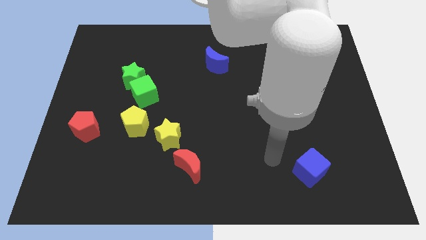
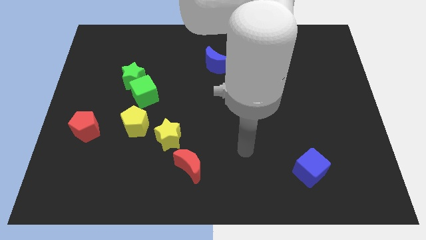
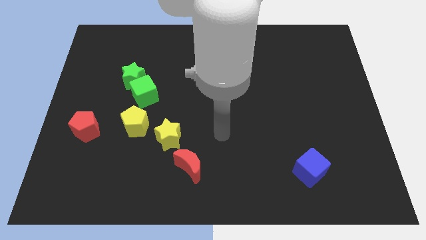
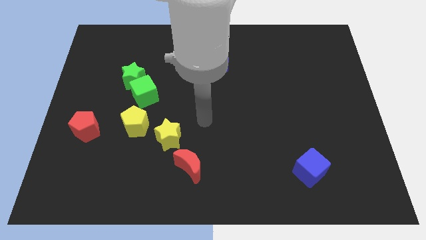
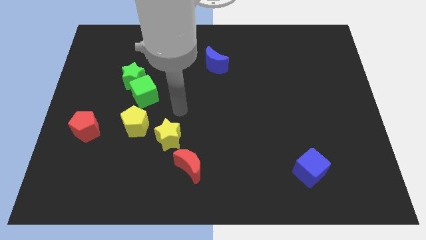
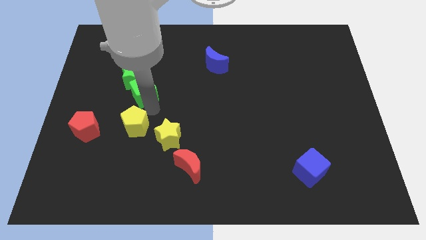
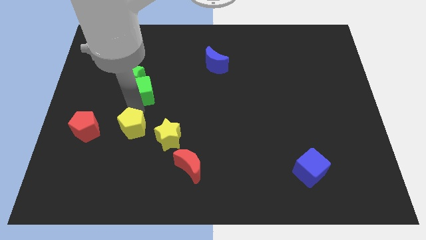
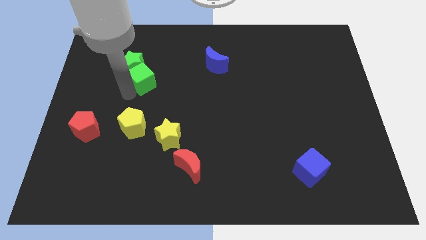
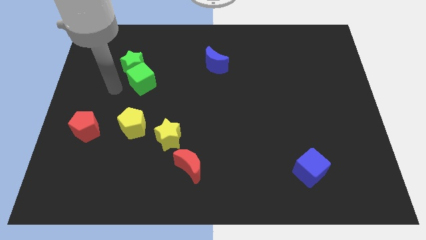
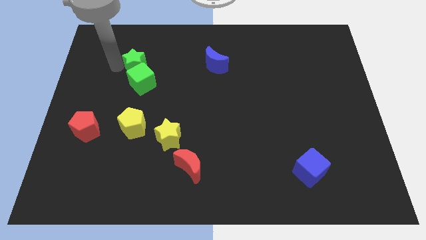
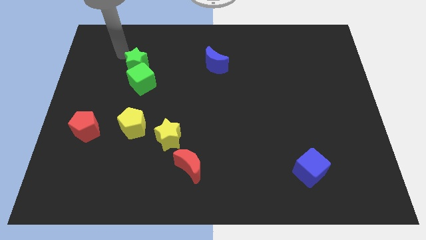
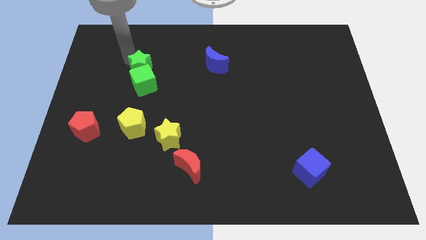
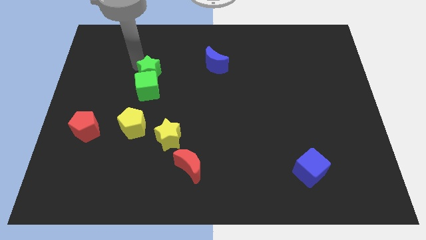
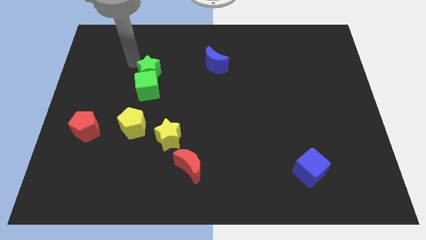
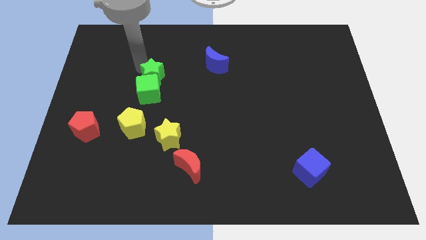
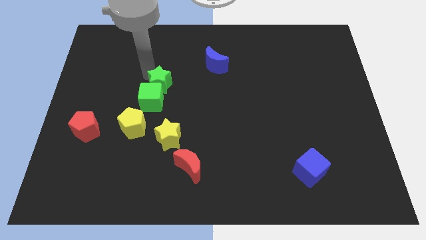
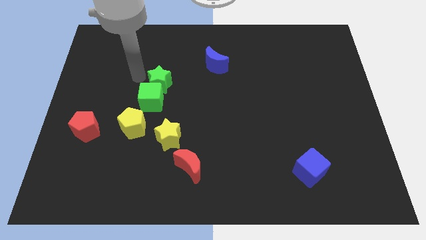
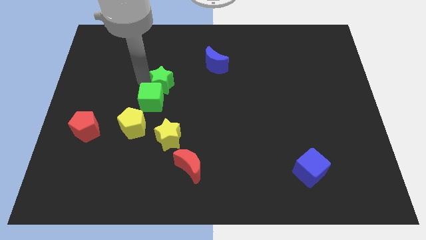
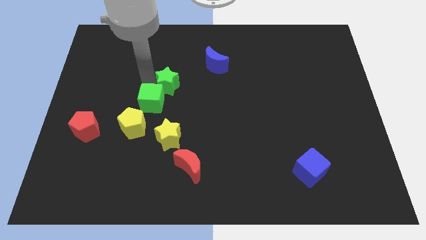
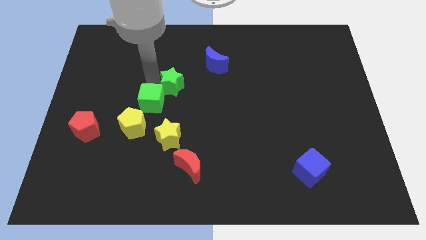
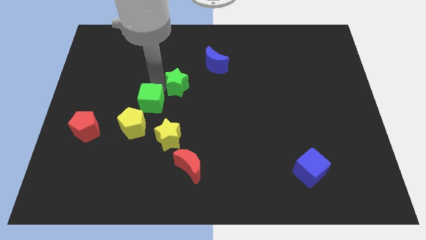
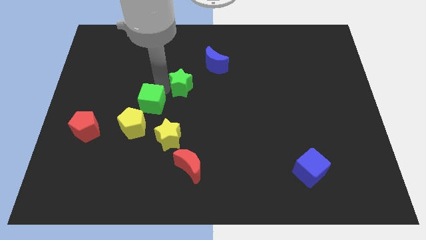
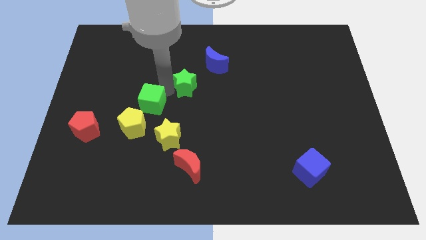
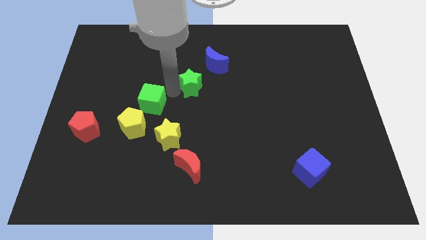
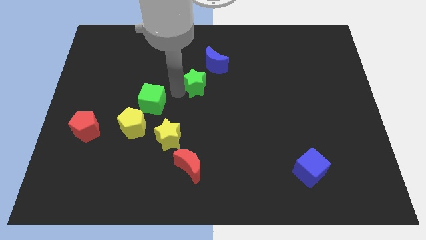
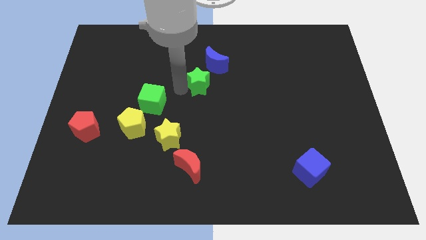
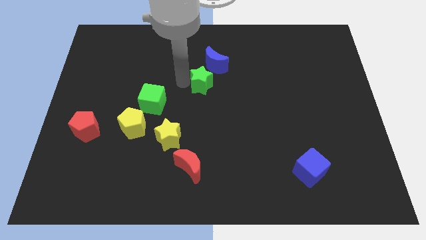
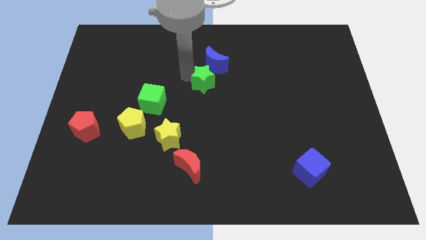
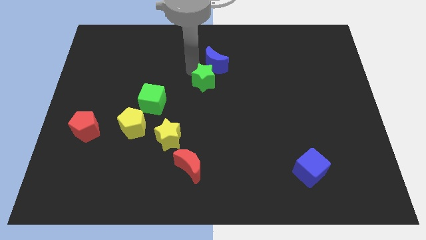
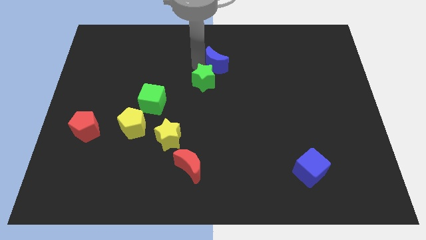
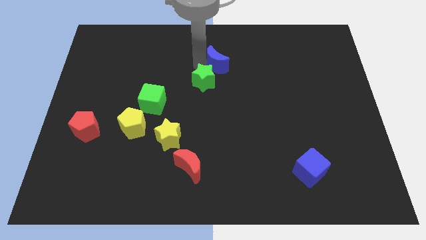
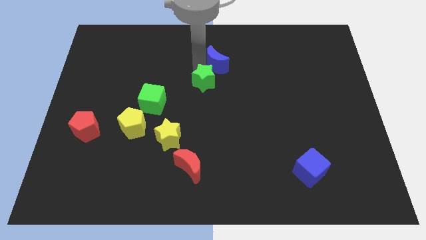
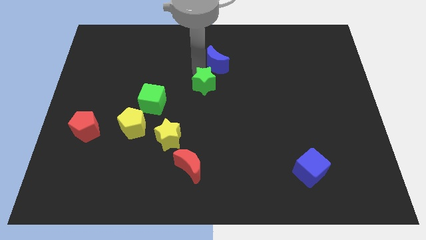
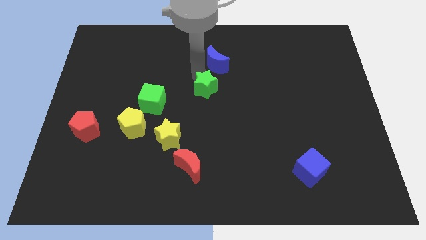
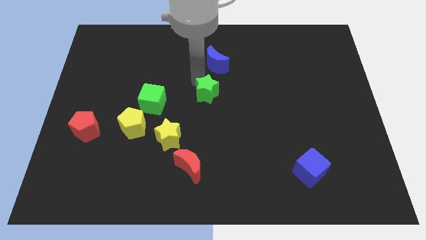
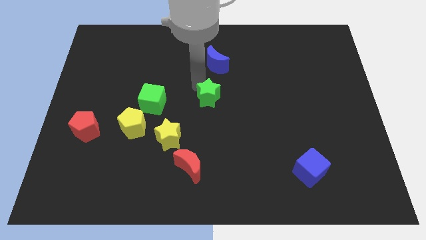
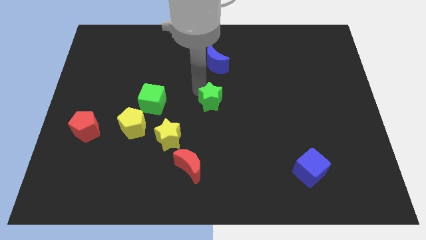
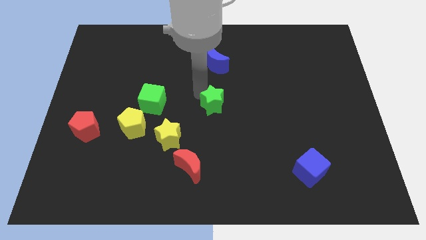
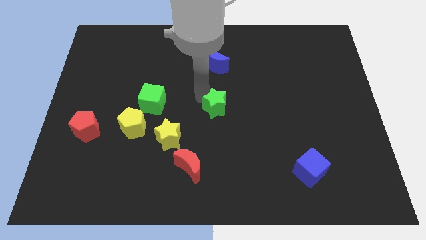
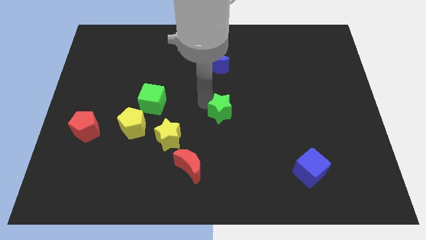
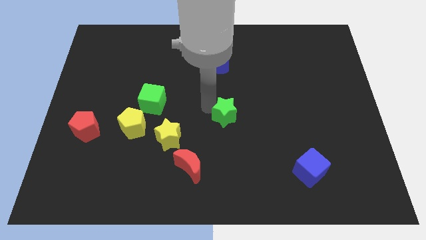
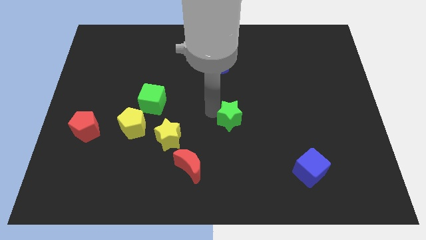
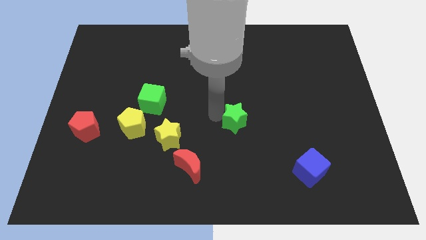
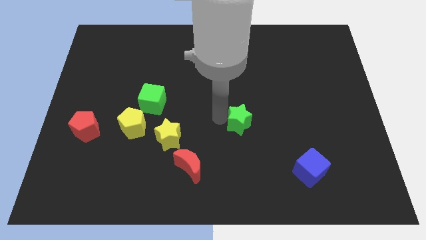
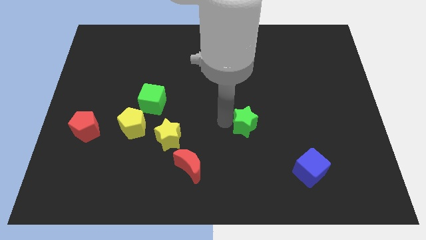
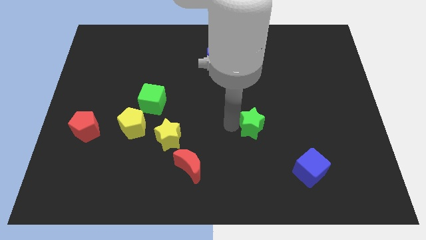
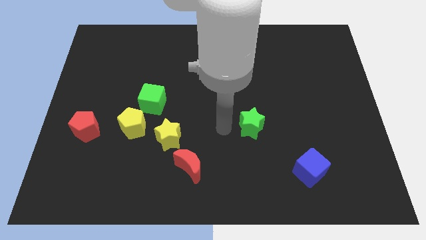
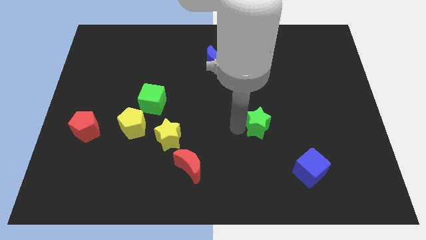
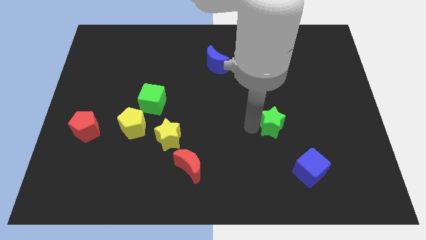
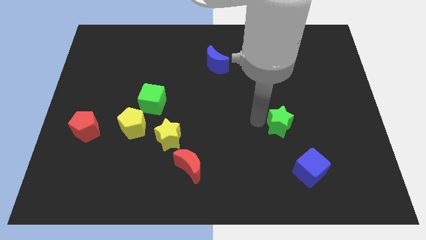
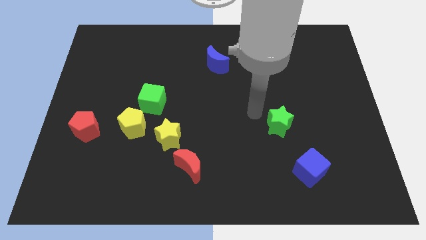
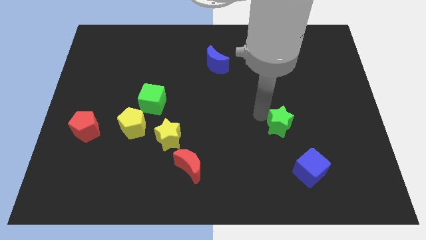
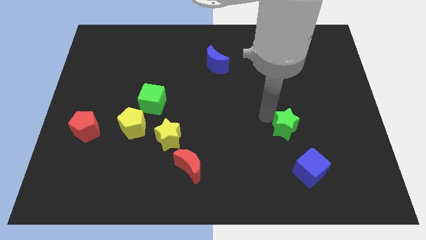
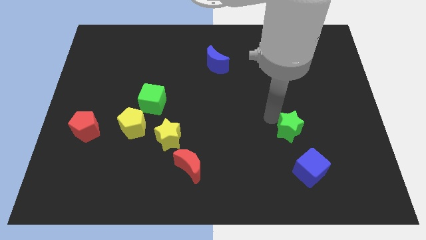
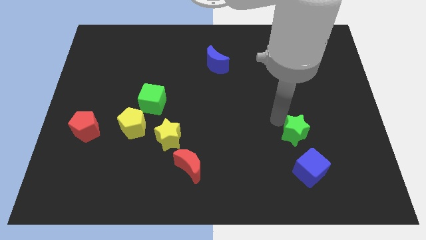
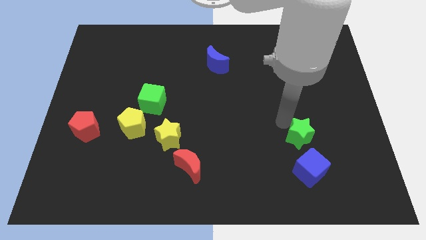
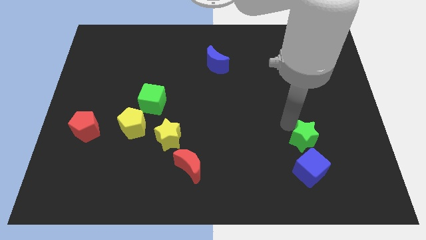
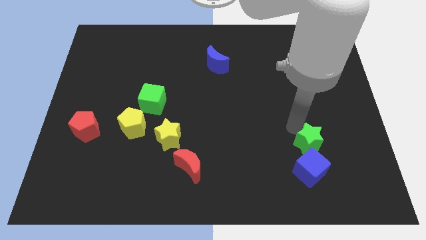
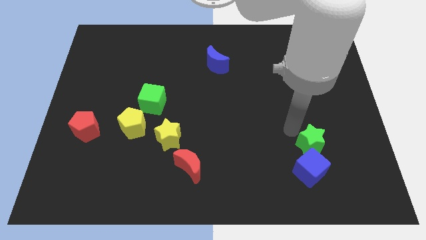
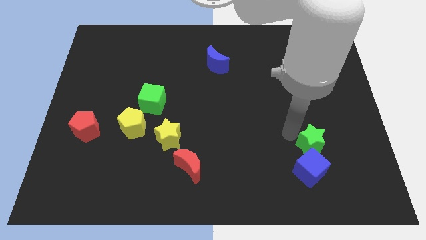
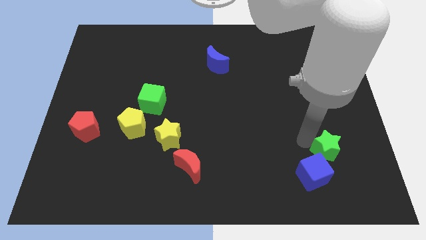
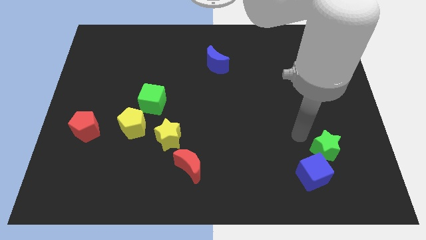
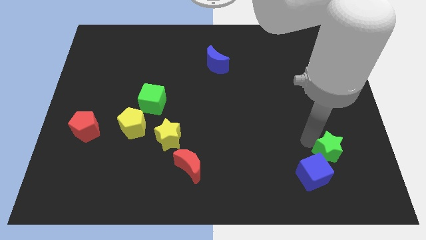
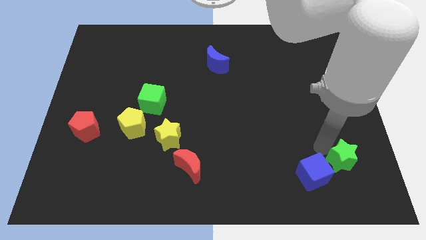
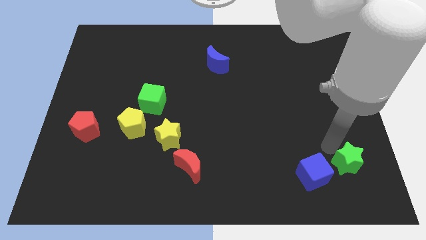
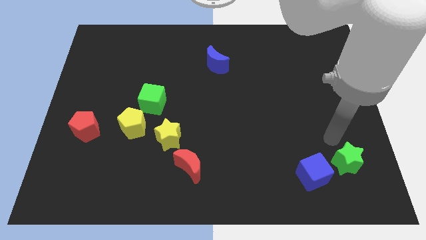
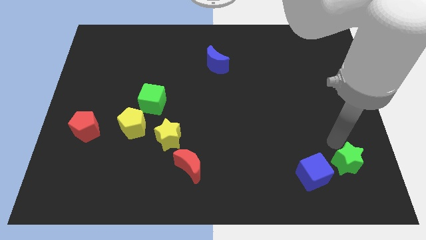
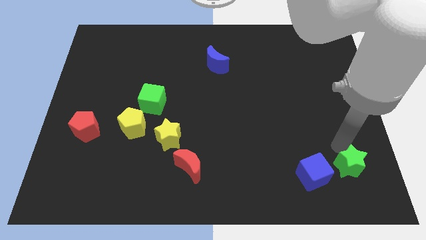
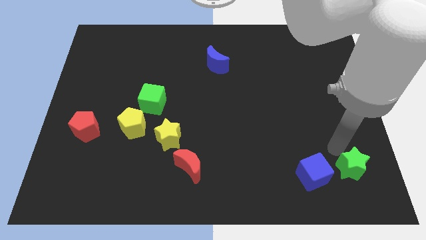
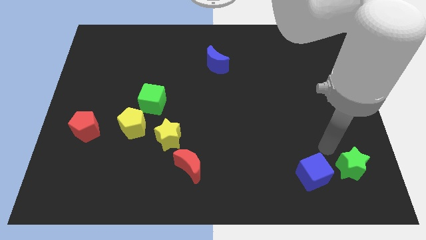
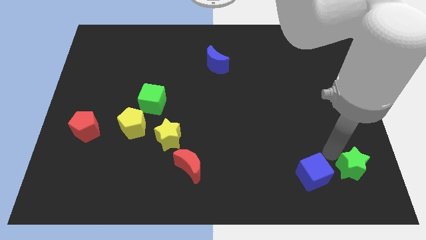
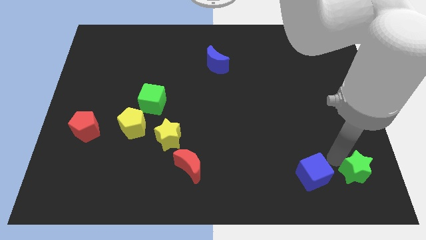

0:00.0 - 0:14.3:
push the green star to the bottom right of the board
